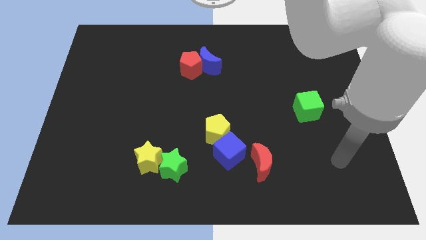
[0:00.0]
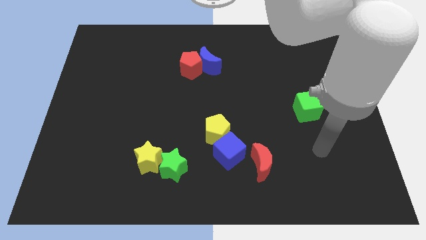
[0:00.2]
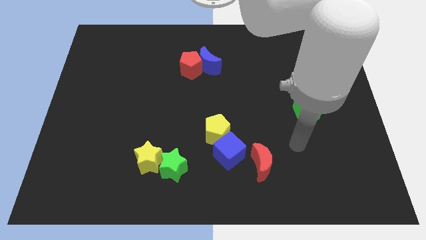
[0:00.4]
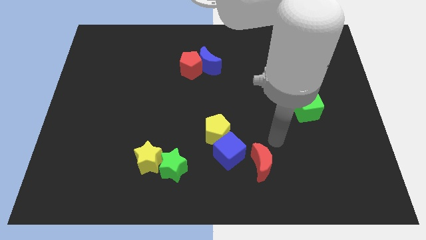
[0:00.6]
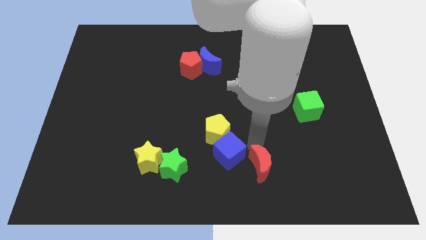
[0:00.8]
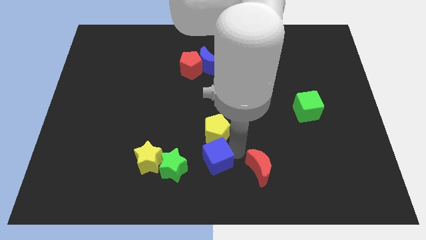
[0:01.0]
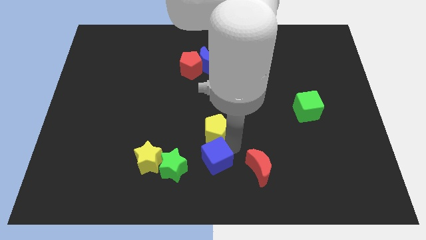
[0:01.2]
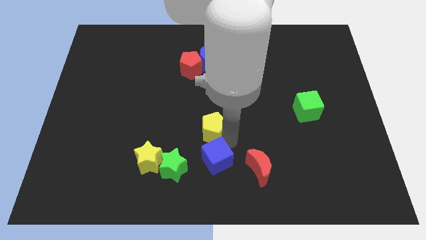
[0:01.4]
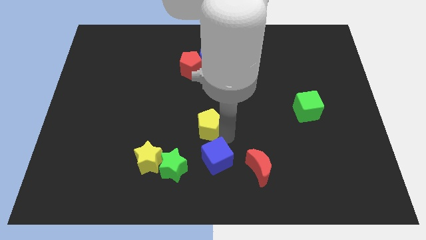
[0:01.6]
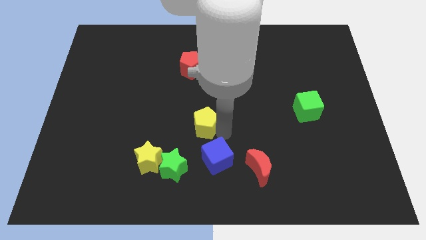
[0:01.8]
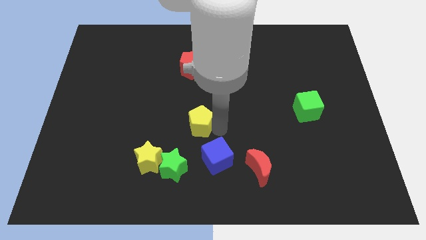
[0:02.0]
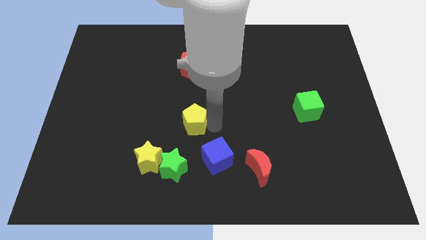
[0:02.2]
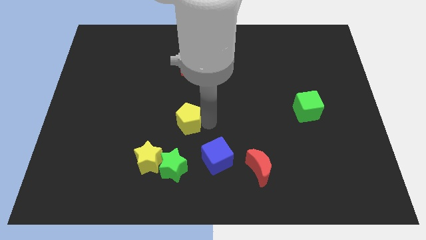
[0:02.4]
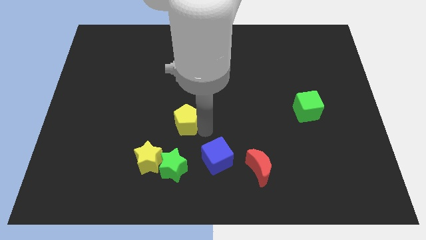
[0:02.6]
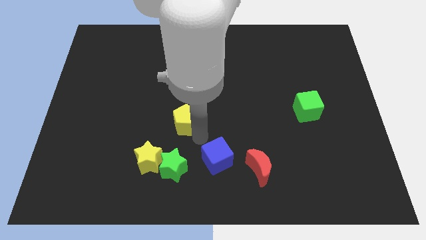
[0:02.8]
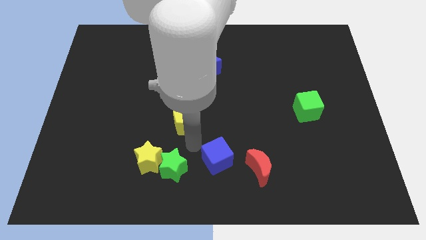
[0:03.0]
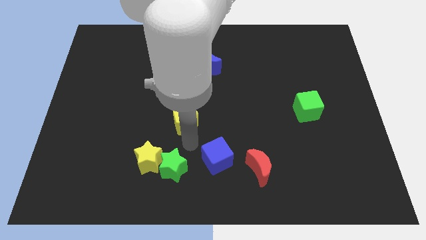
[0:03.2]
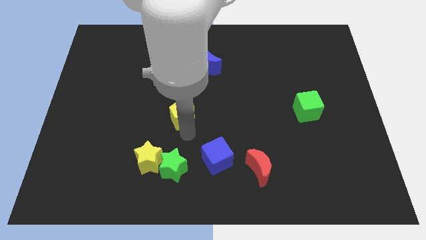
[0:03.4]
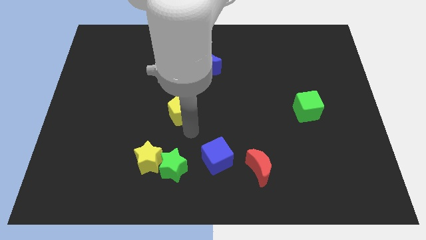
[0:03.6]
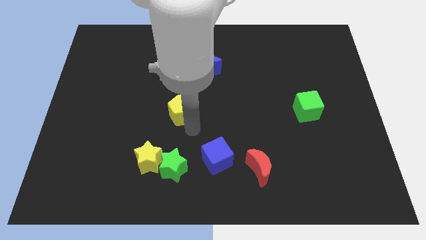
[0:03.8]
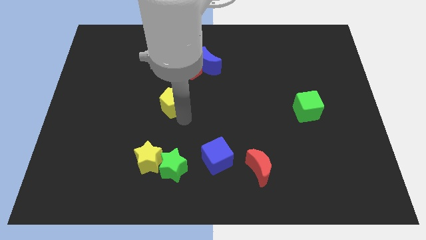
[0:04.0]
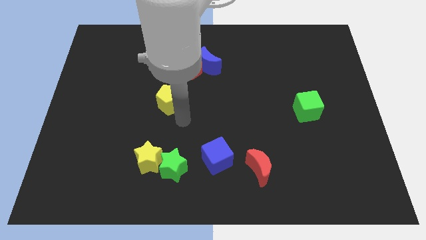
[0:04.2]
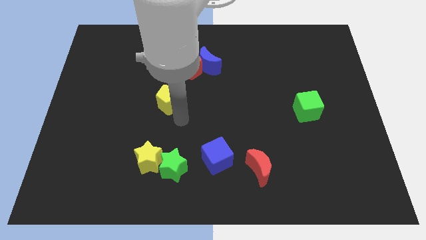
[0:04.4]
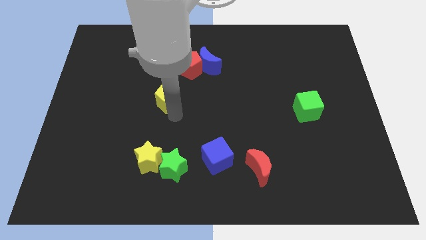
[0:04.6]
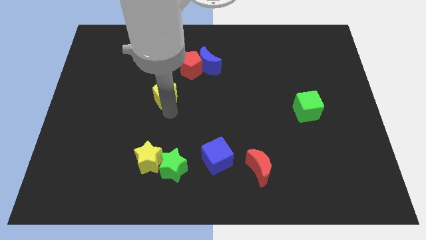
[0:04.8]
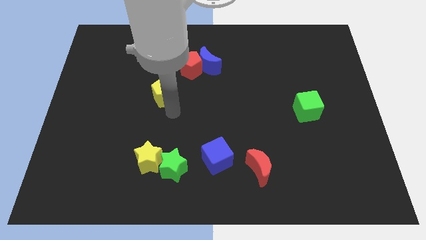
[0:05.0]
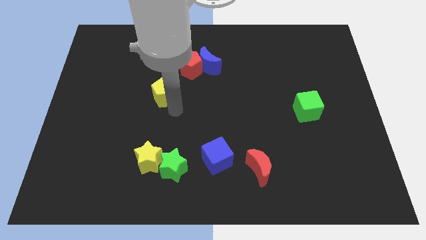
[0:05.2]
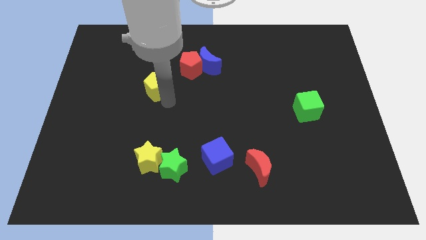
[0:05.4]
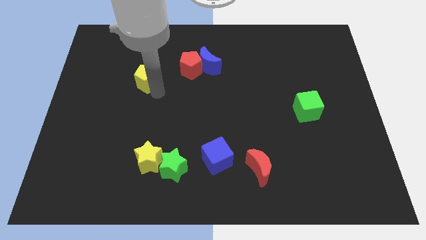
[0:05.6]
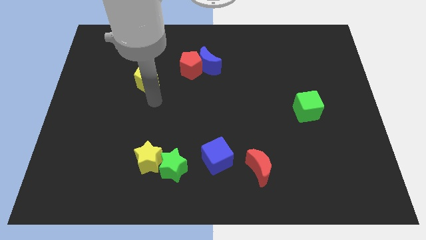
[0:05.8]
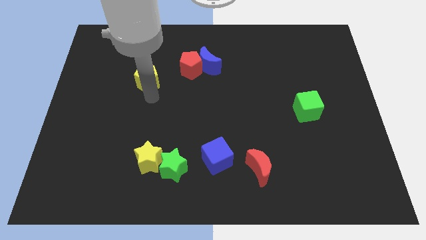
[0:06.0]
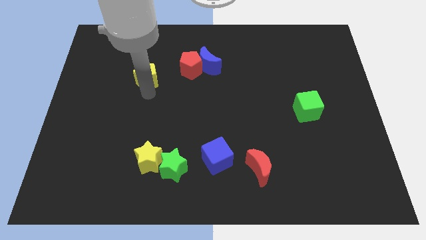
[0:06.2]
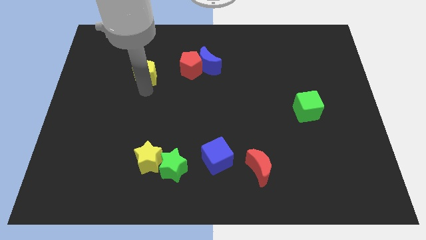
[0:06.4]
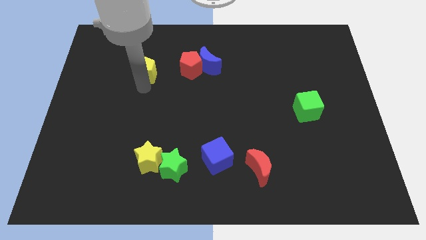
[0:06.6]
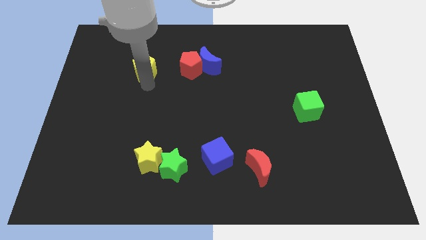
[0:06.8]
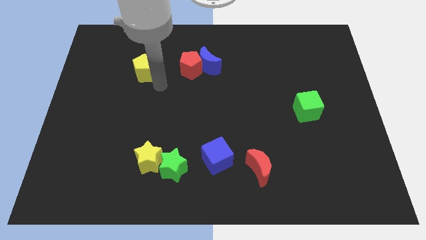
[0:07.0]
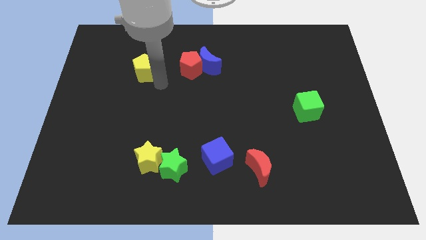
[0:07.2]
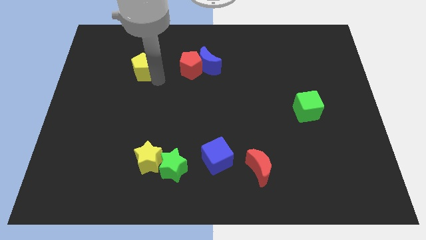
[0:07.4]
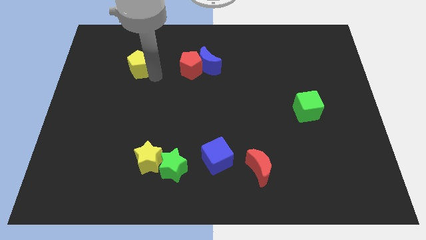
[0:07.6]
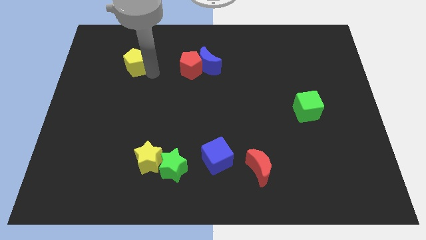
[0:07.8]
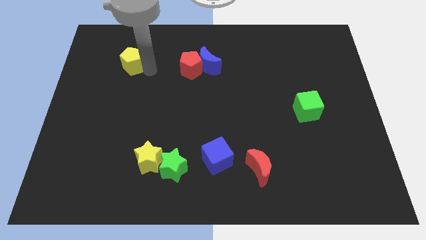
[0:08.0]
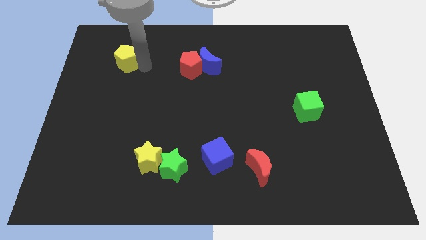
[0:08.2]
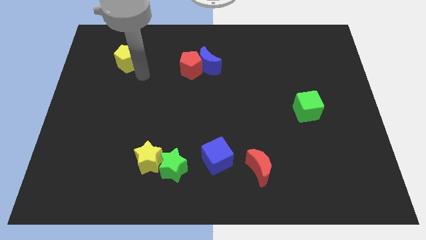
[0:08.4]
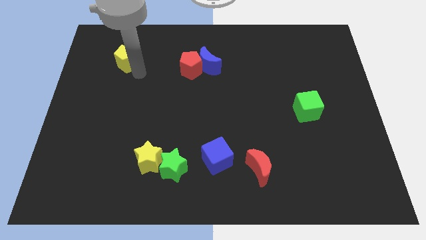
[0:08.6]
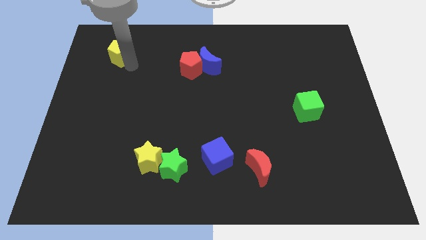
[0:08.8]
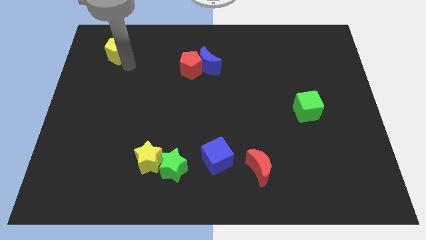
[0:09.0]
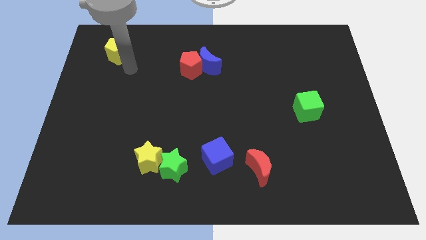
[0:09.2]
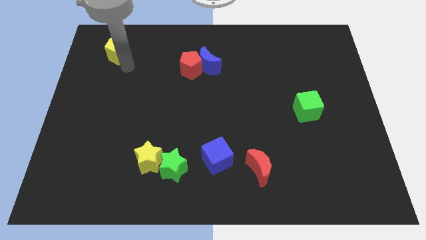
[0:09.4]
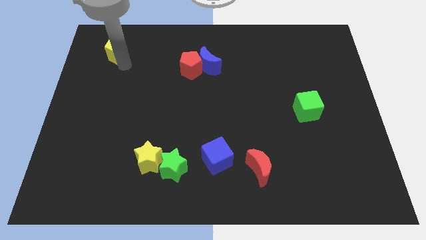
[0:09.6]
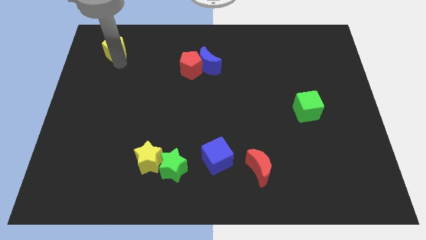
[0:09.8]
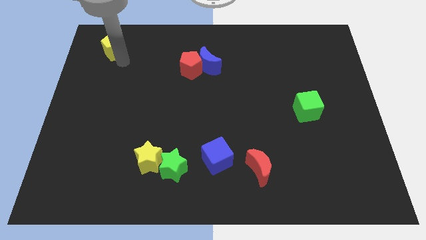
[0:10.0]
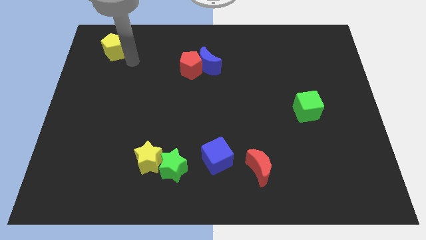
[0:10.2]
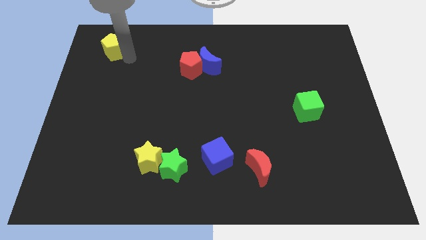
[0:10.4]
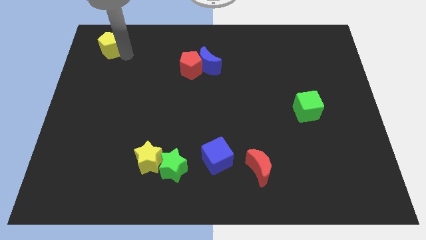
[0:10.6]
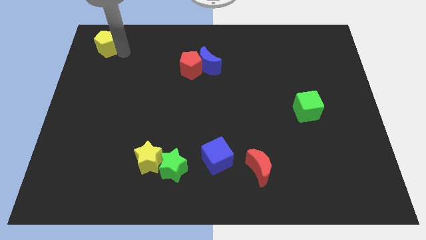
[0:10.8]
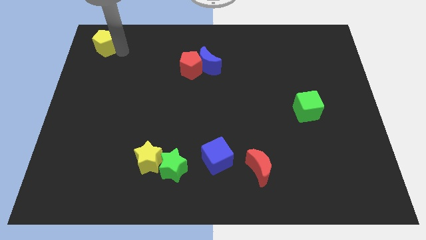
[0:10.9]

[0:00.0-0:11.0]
move the yellow pentagon to the upper left corner

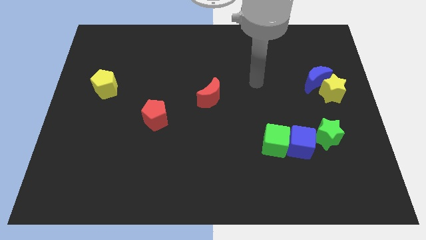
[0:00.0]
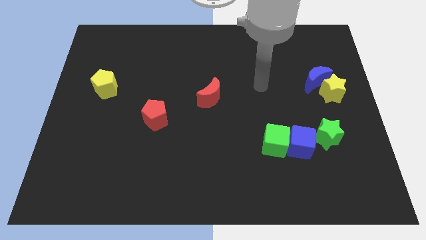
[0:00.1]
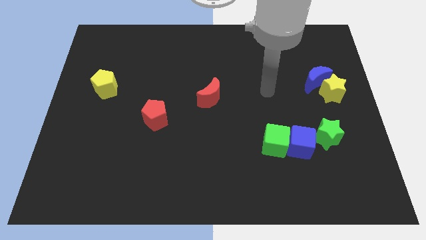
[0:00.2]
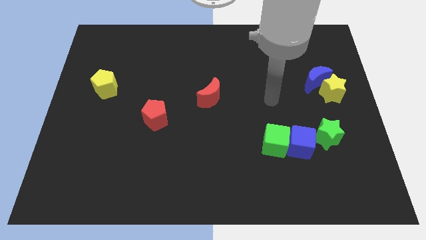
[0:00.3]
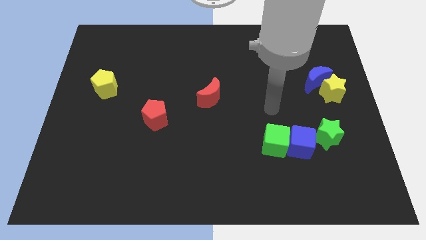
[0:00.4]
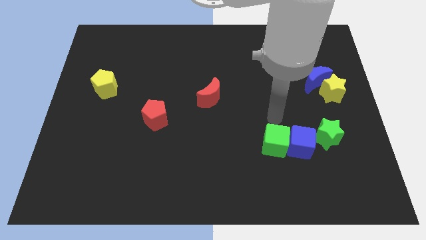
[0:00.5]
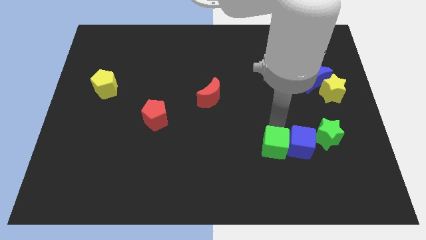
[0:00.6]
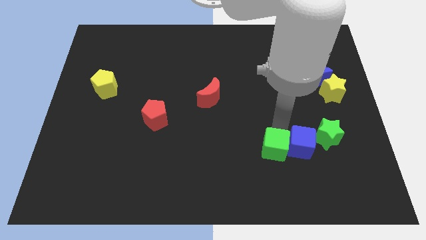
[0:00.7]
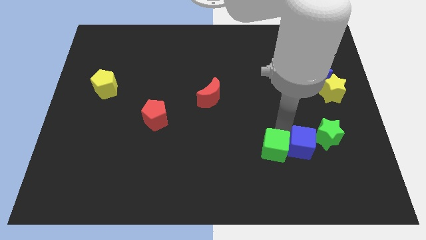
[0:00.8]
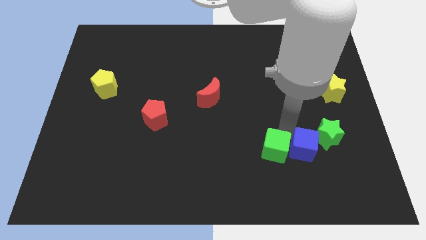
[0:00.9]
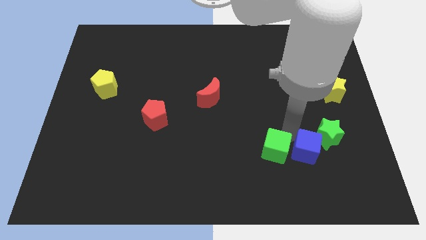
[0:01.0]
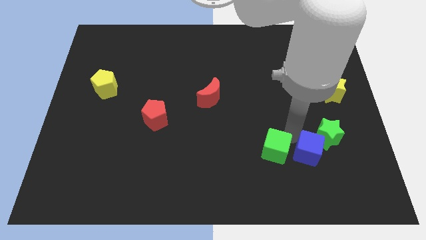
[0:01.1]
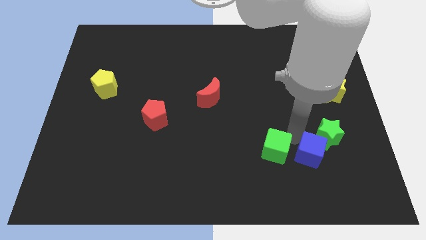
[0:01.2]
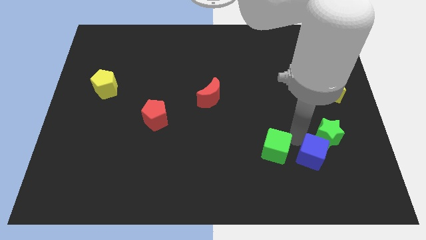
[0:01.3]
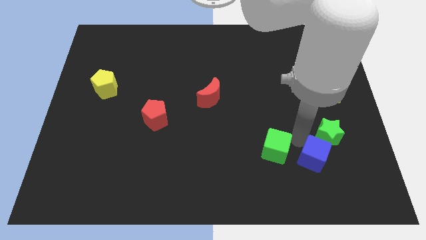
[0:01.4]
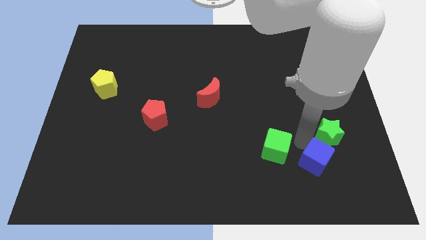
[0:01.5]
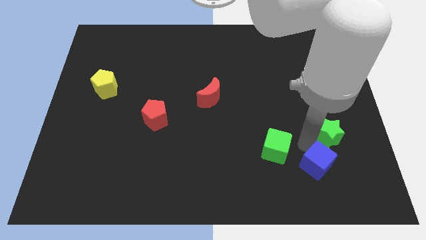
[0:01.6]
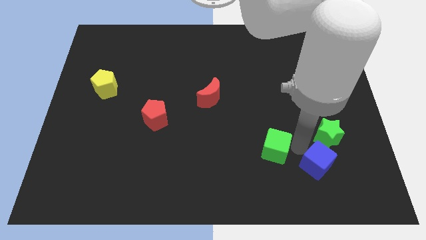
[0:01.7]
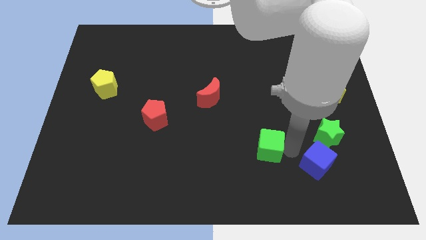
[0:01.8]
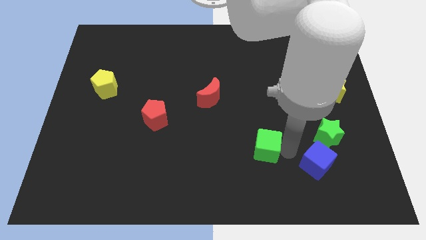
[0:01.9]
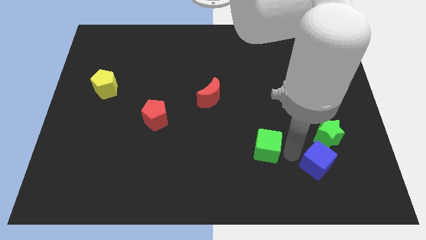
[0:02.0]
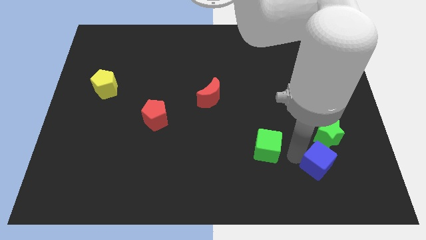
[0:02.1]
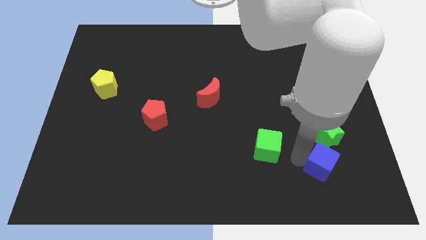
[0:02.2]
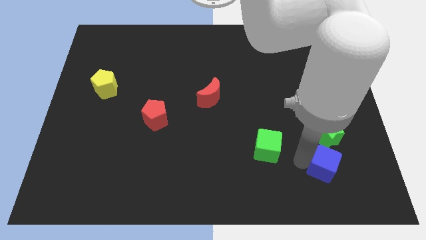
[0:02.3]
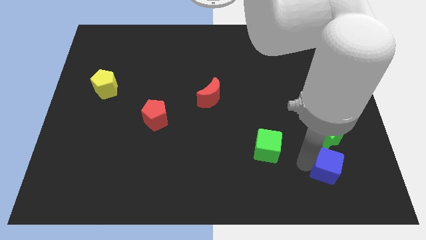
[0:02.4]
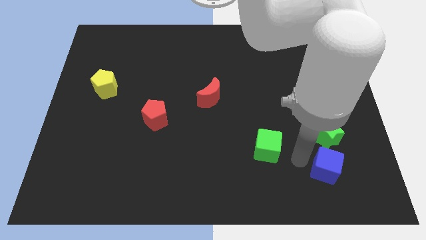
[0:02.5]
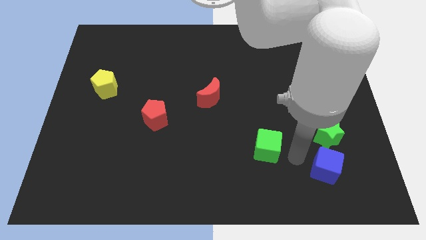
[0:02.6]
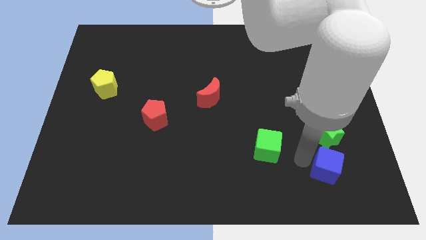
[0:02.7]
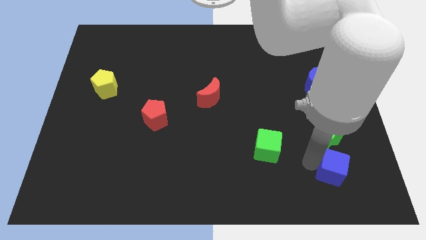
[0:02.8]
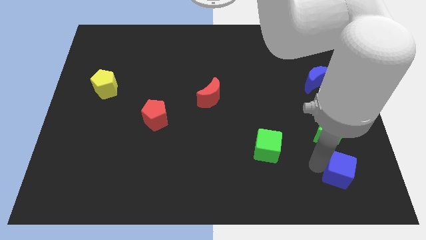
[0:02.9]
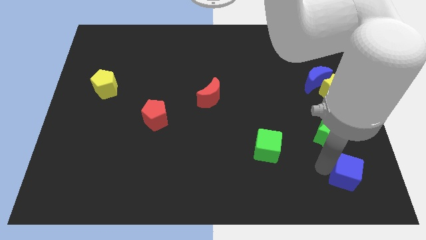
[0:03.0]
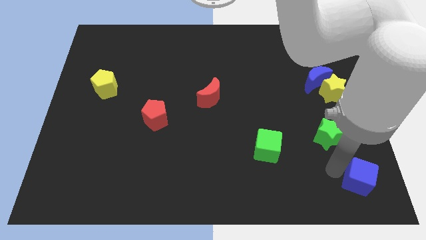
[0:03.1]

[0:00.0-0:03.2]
slide the blue cube to the bottom right
